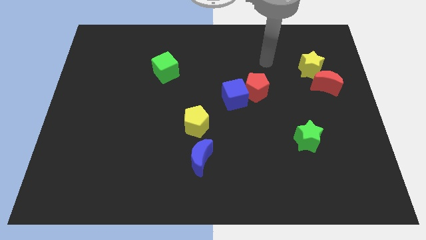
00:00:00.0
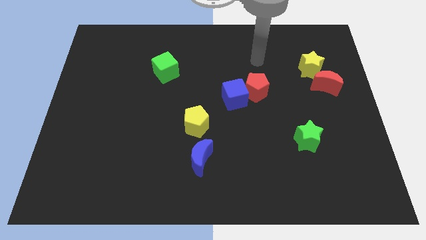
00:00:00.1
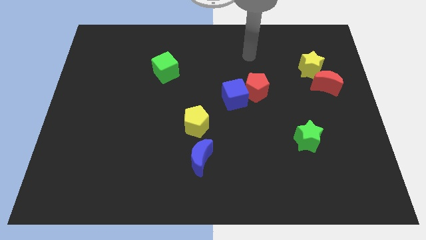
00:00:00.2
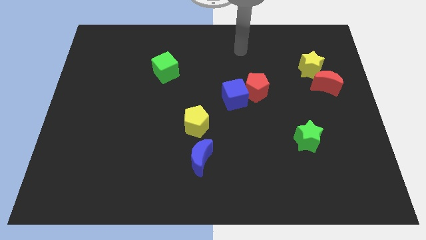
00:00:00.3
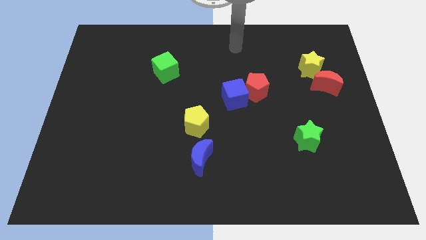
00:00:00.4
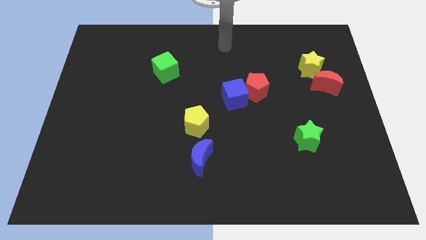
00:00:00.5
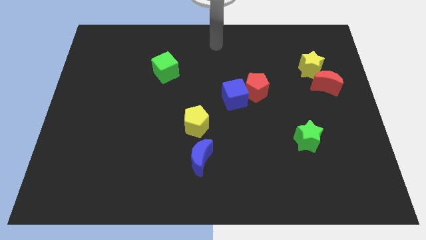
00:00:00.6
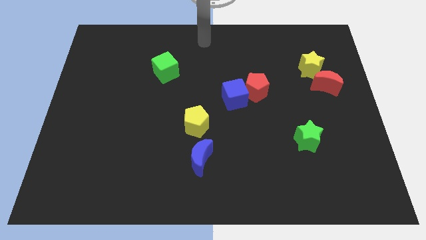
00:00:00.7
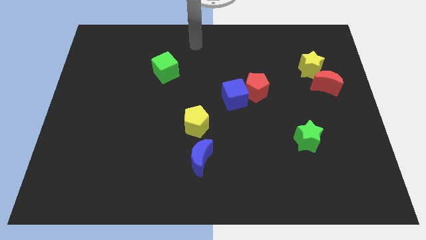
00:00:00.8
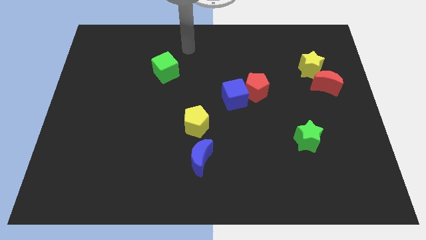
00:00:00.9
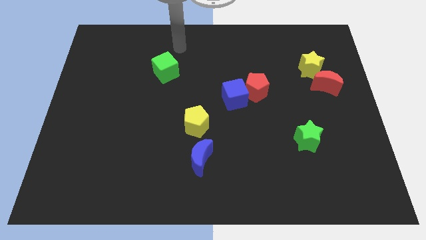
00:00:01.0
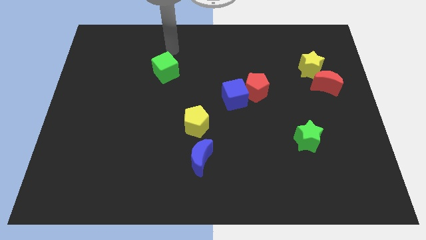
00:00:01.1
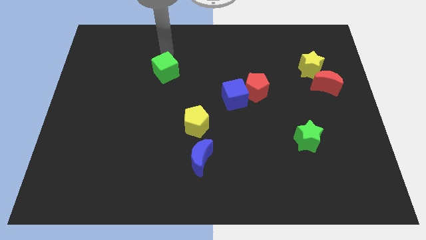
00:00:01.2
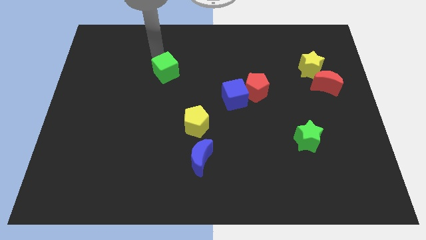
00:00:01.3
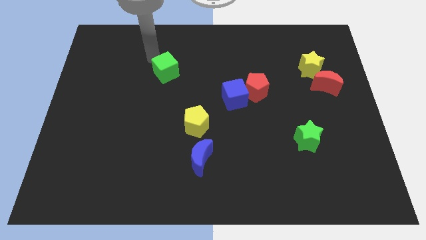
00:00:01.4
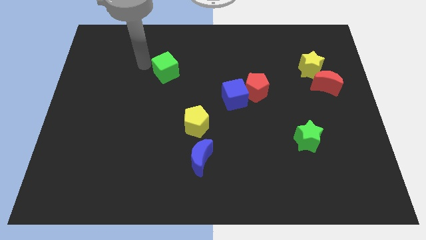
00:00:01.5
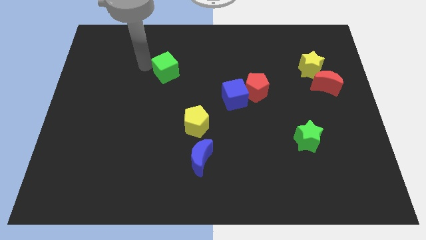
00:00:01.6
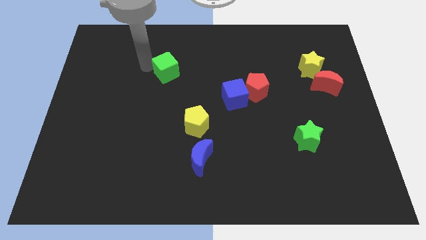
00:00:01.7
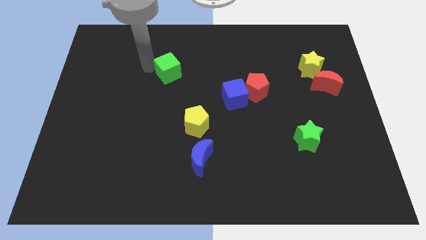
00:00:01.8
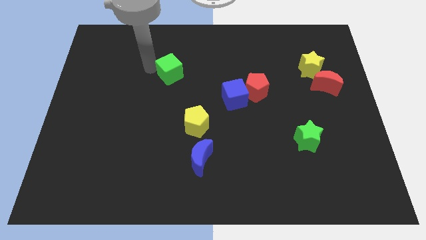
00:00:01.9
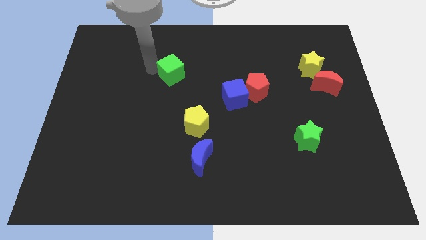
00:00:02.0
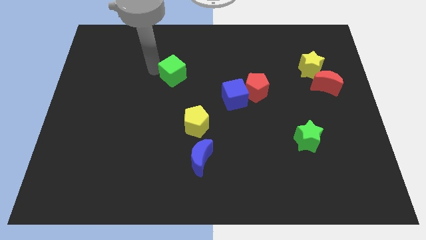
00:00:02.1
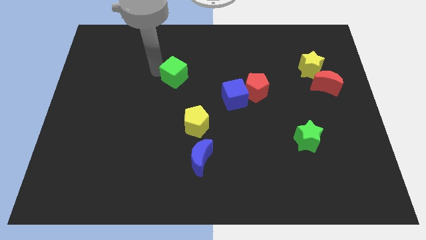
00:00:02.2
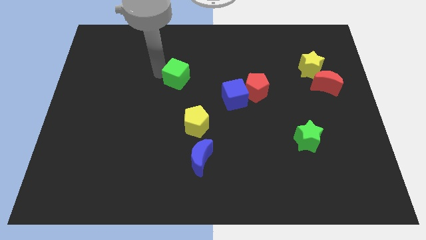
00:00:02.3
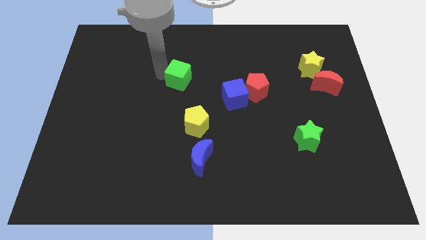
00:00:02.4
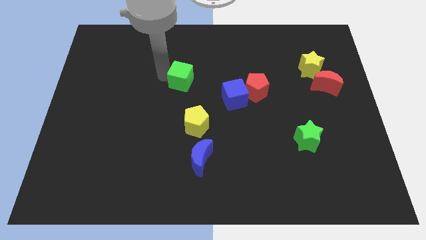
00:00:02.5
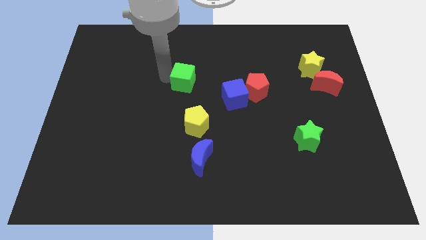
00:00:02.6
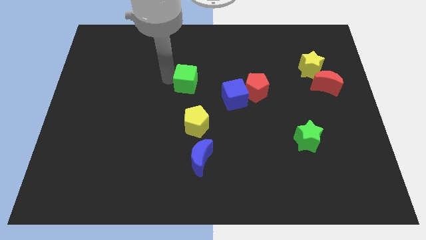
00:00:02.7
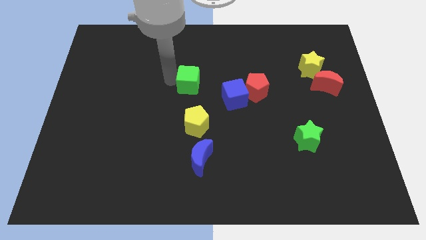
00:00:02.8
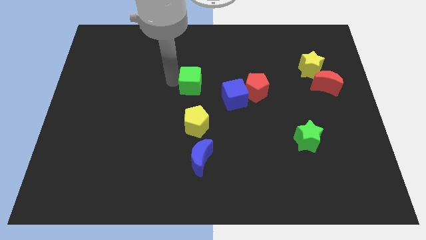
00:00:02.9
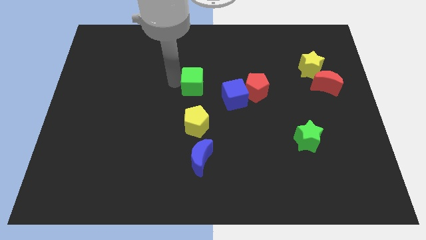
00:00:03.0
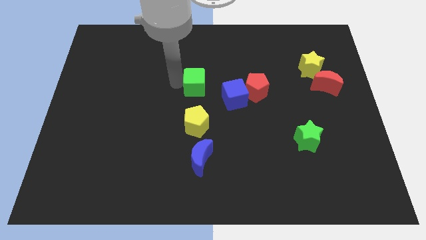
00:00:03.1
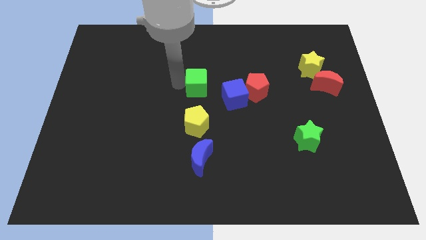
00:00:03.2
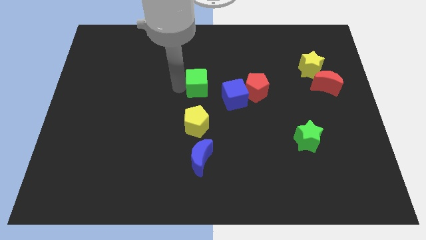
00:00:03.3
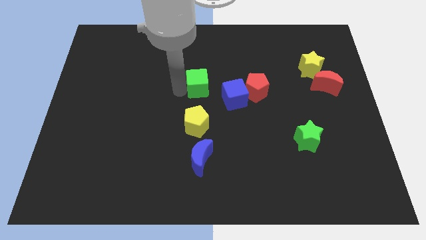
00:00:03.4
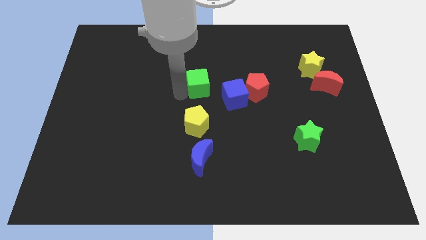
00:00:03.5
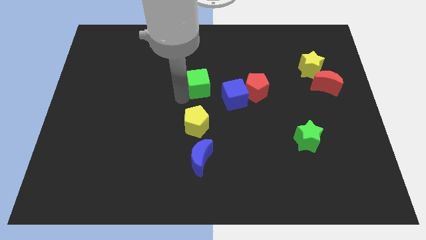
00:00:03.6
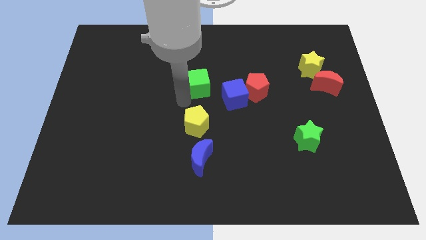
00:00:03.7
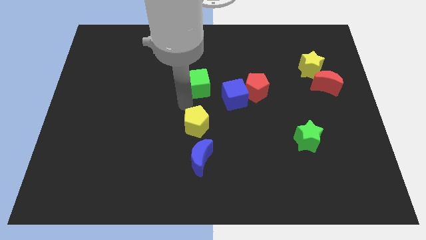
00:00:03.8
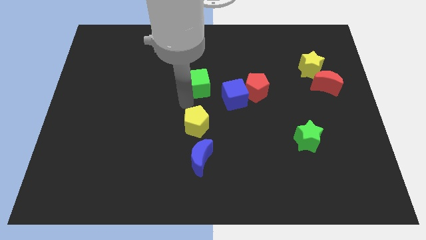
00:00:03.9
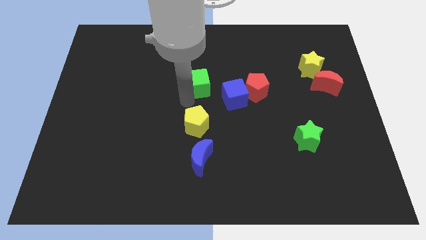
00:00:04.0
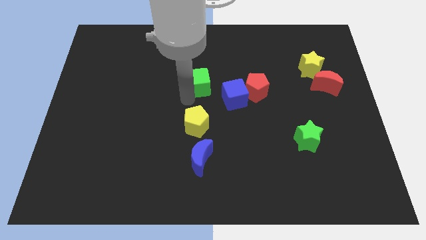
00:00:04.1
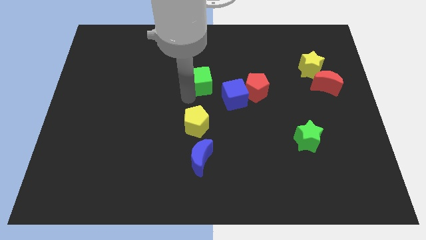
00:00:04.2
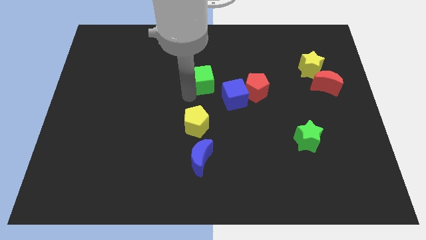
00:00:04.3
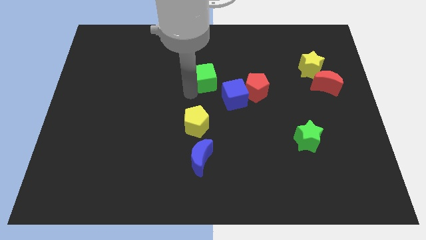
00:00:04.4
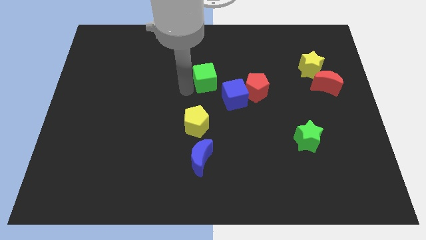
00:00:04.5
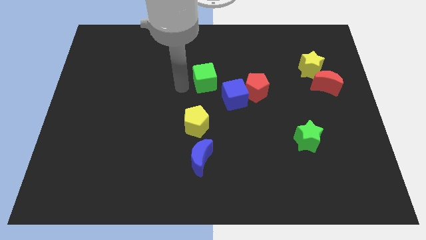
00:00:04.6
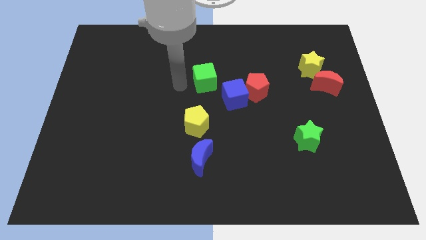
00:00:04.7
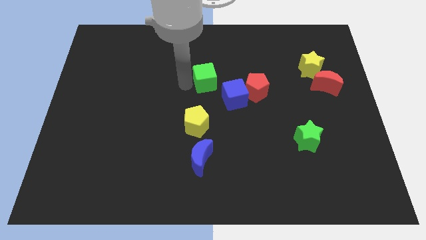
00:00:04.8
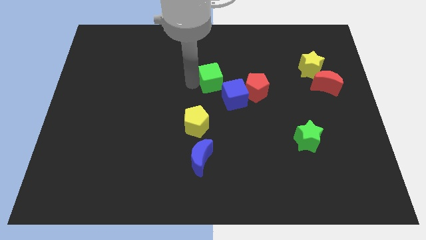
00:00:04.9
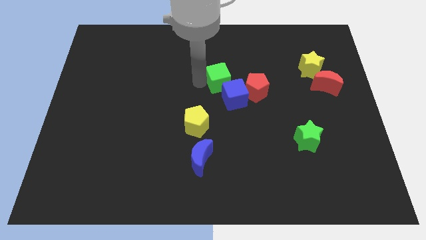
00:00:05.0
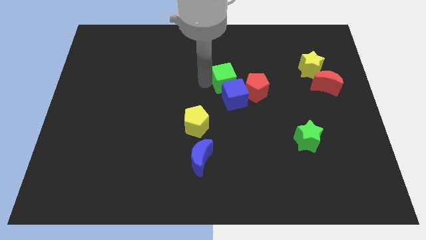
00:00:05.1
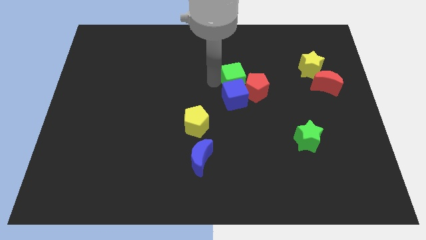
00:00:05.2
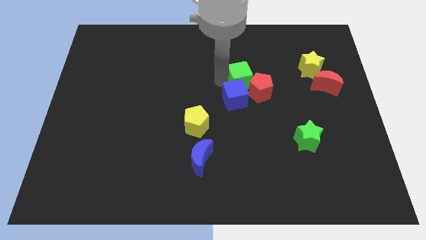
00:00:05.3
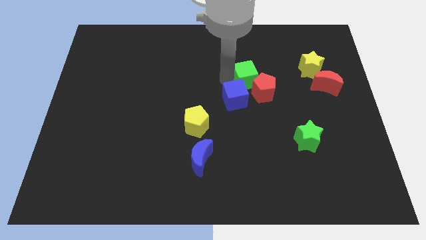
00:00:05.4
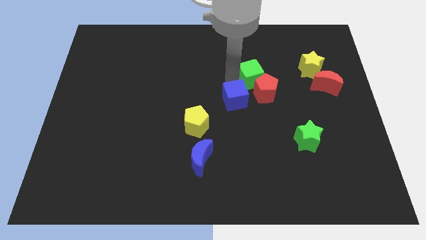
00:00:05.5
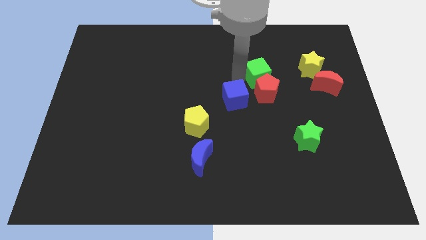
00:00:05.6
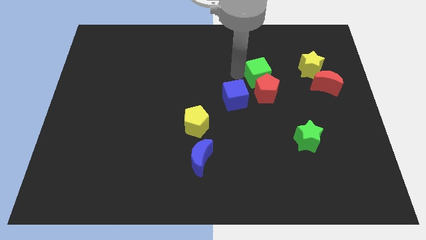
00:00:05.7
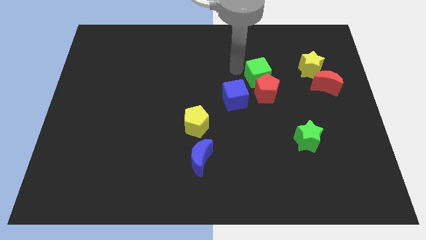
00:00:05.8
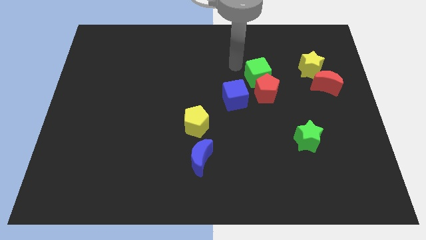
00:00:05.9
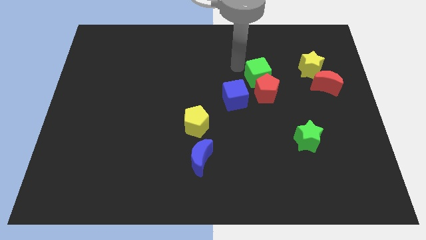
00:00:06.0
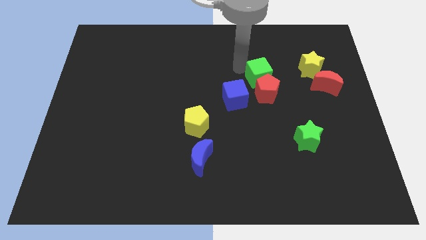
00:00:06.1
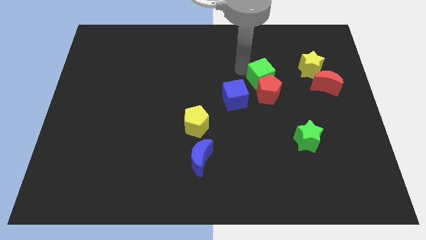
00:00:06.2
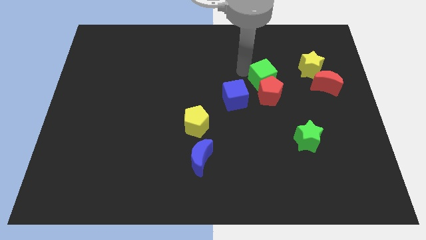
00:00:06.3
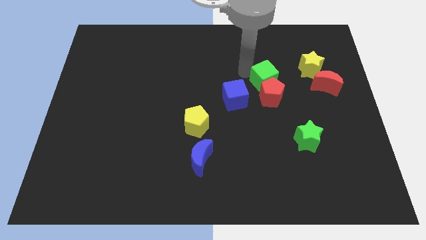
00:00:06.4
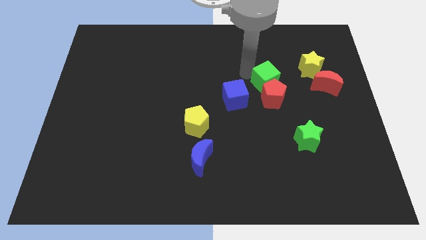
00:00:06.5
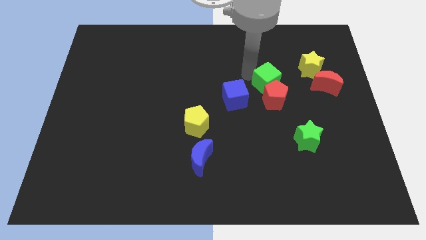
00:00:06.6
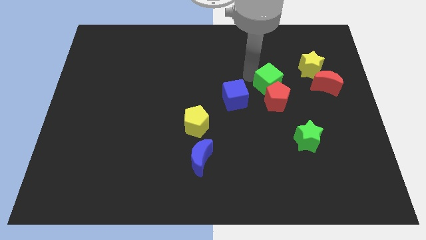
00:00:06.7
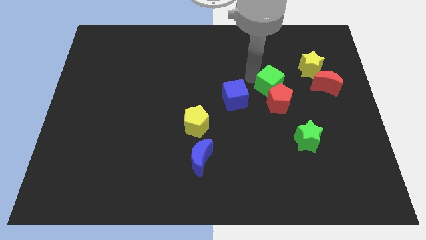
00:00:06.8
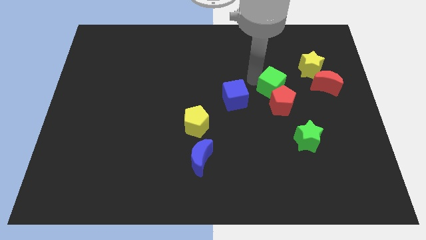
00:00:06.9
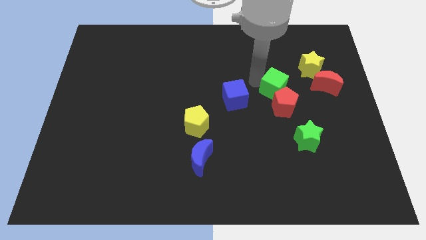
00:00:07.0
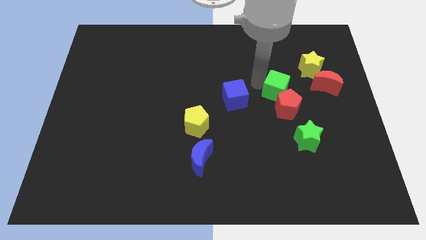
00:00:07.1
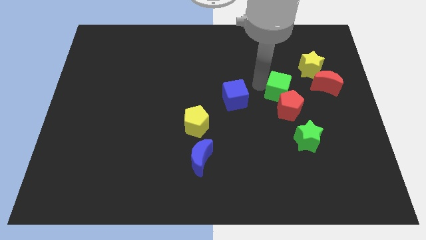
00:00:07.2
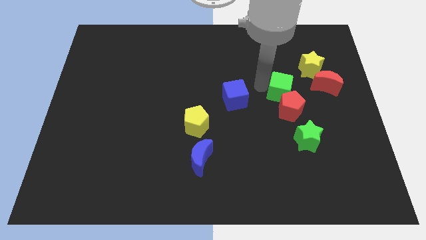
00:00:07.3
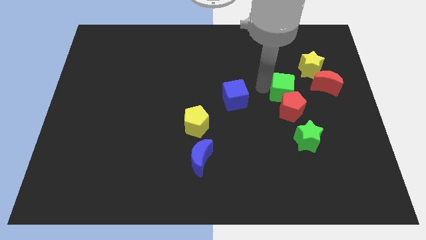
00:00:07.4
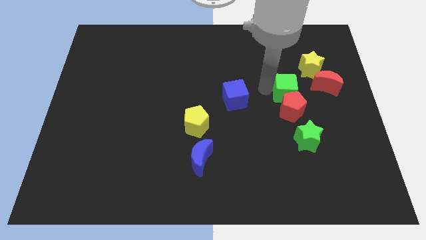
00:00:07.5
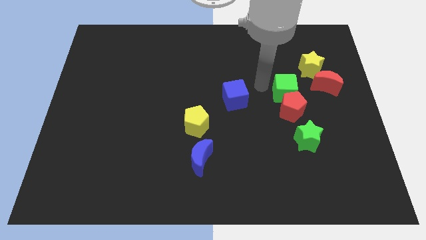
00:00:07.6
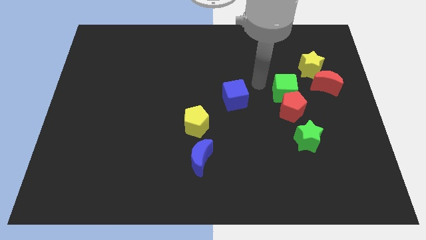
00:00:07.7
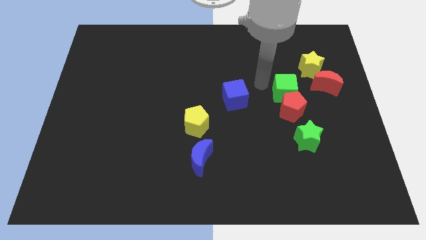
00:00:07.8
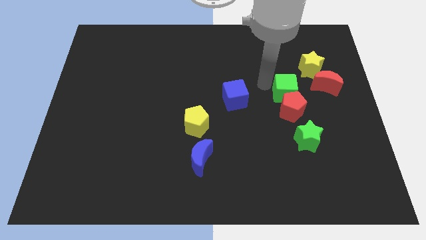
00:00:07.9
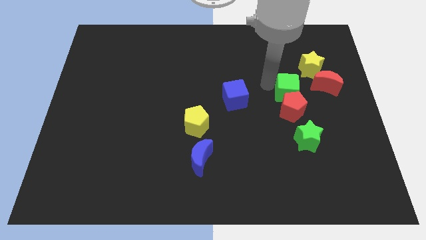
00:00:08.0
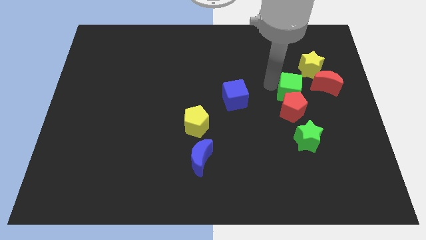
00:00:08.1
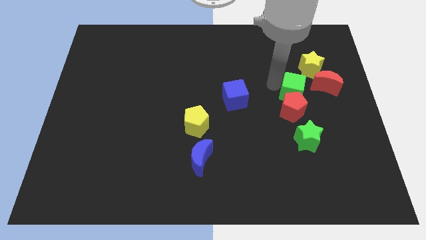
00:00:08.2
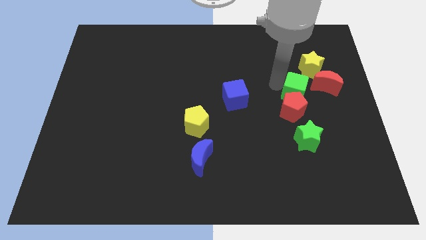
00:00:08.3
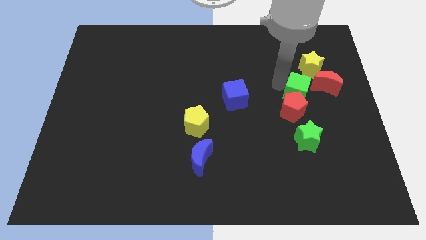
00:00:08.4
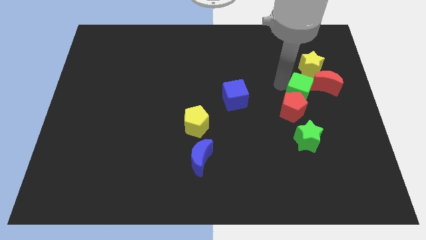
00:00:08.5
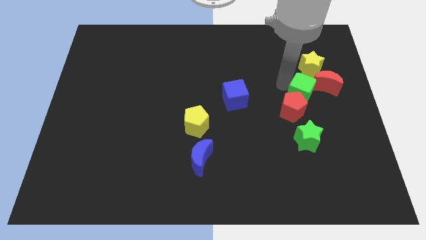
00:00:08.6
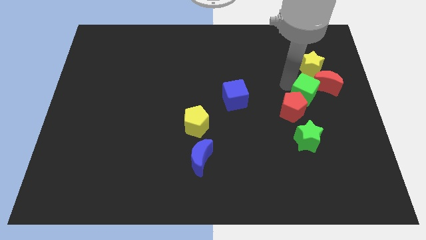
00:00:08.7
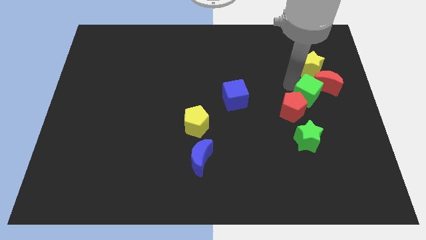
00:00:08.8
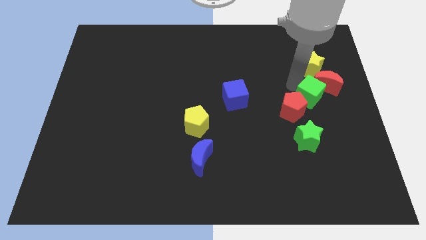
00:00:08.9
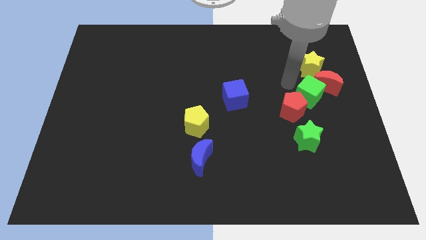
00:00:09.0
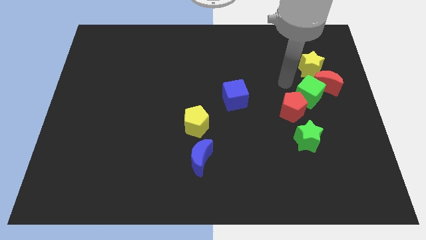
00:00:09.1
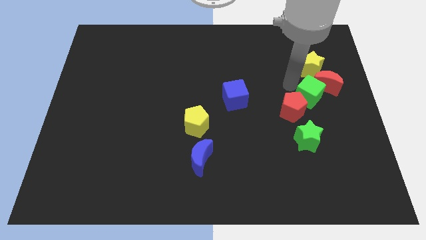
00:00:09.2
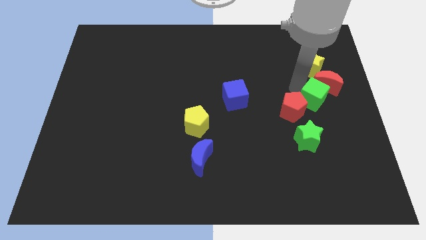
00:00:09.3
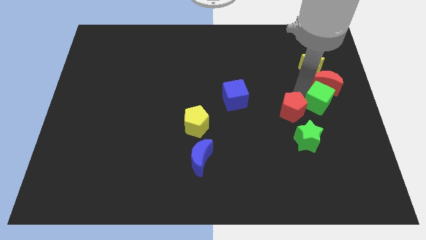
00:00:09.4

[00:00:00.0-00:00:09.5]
slide the green cube to the right side
